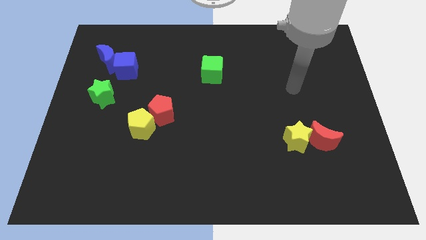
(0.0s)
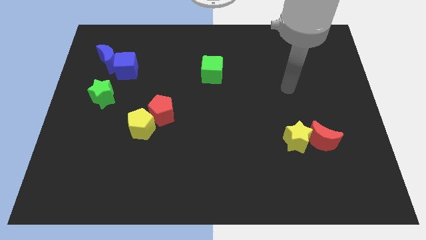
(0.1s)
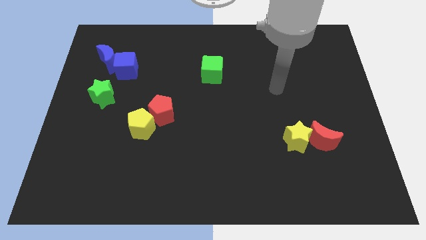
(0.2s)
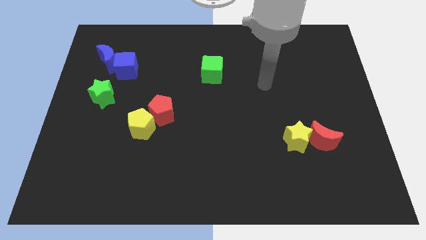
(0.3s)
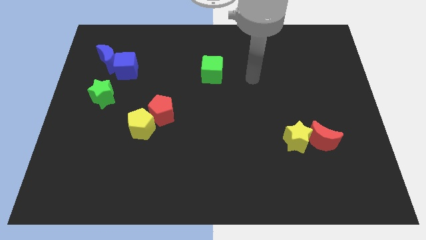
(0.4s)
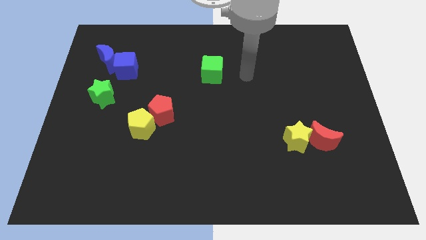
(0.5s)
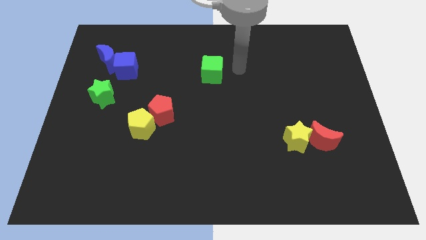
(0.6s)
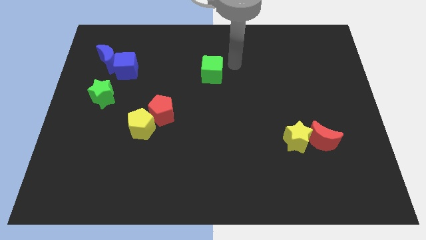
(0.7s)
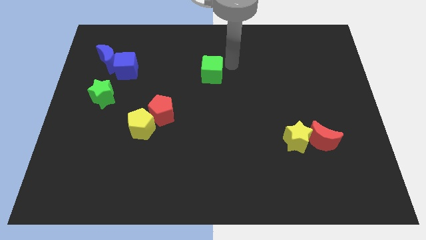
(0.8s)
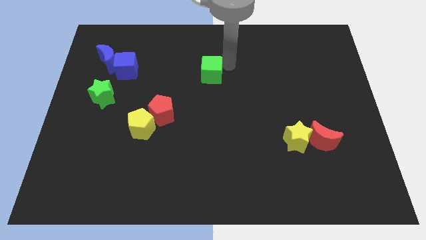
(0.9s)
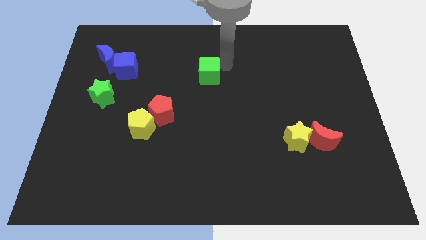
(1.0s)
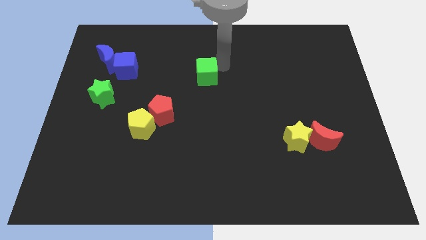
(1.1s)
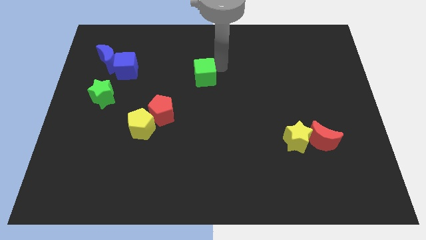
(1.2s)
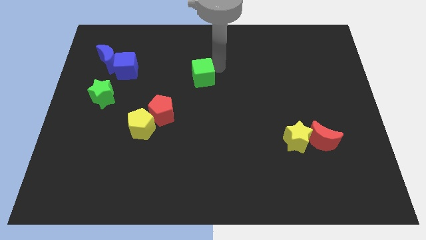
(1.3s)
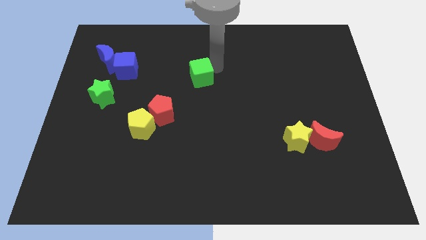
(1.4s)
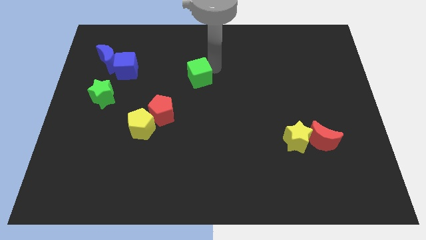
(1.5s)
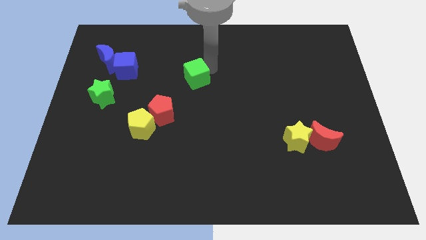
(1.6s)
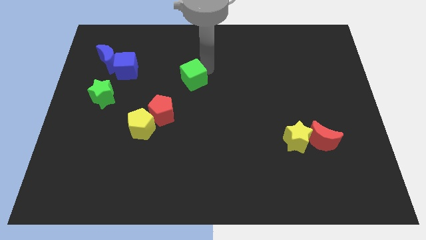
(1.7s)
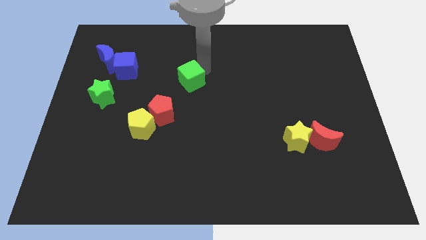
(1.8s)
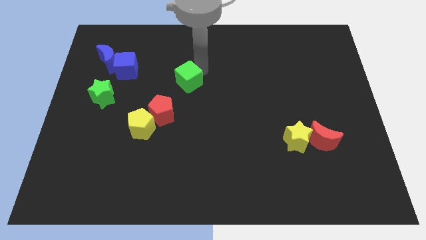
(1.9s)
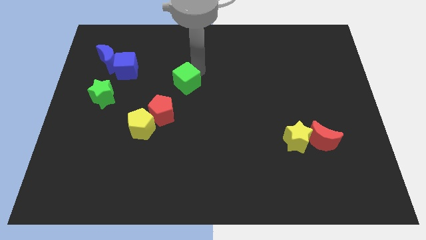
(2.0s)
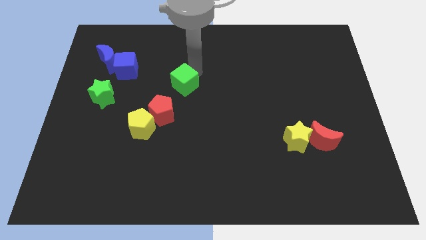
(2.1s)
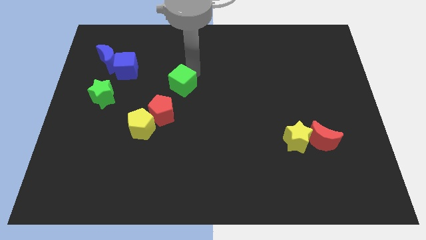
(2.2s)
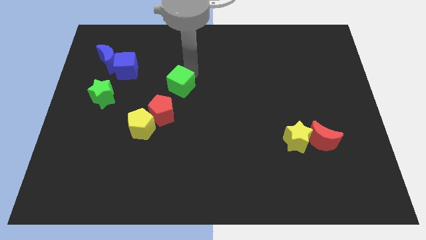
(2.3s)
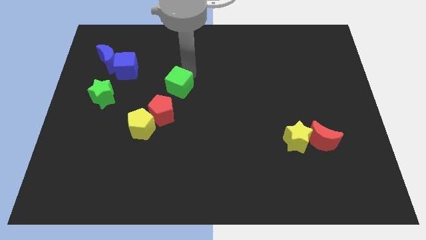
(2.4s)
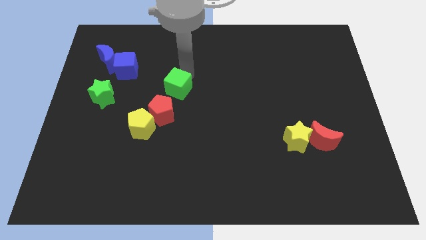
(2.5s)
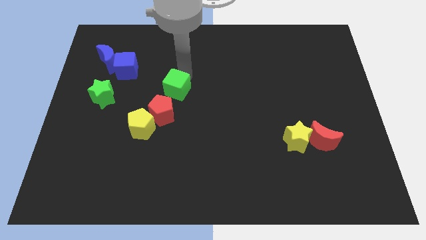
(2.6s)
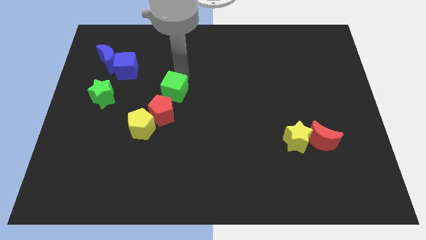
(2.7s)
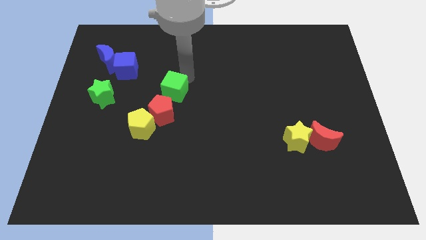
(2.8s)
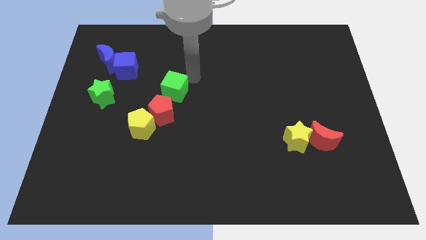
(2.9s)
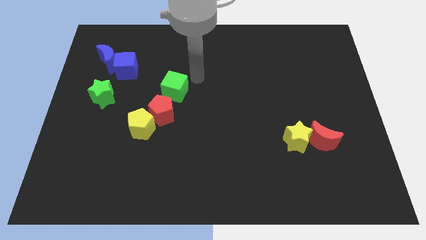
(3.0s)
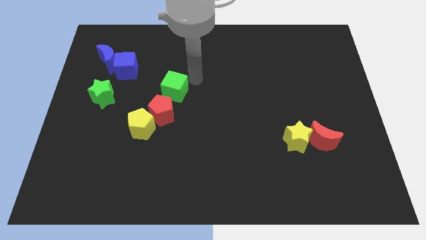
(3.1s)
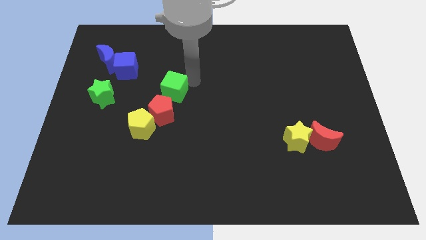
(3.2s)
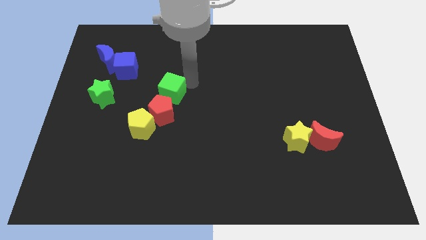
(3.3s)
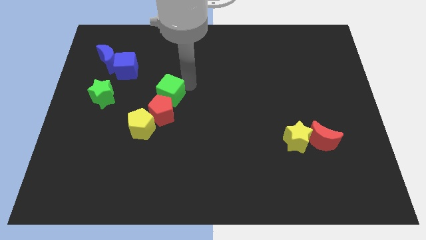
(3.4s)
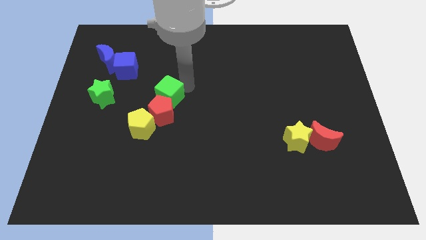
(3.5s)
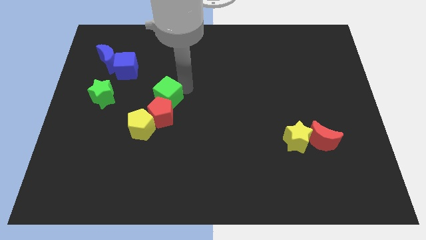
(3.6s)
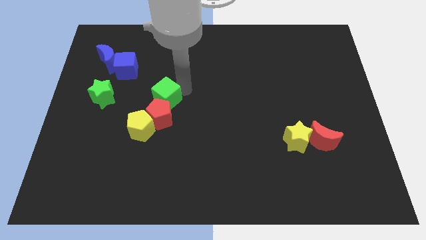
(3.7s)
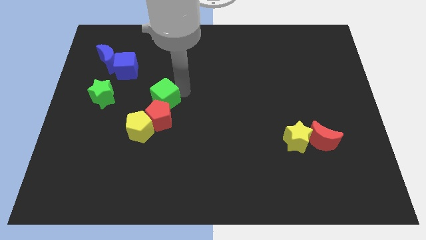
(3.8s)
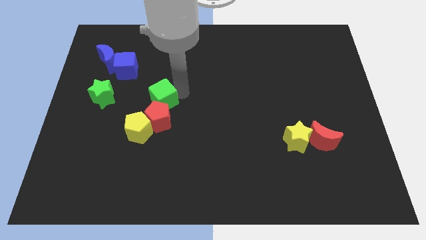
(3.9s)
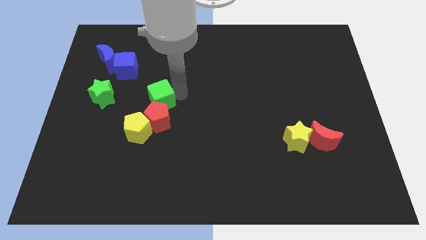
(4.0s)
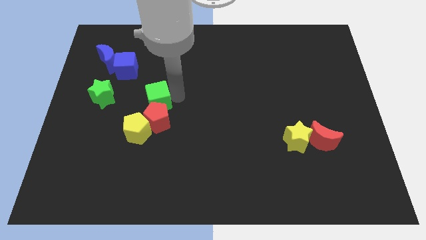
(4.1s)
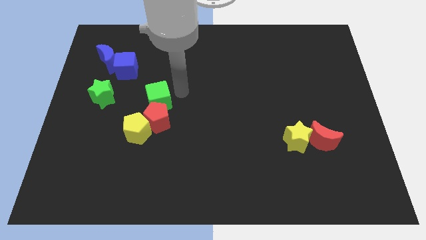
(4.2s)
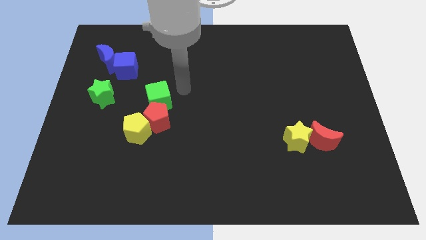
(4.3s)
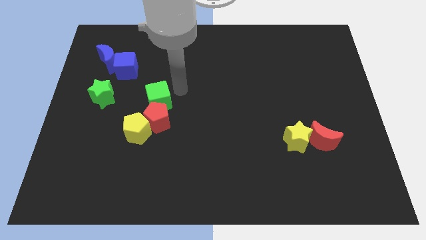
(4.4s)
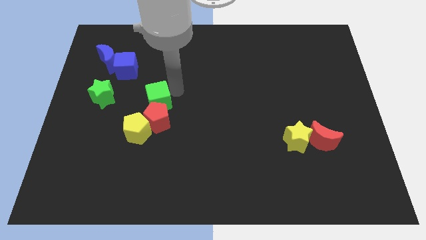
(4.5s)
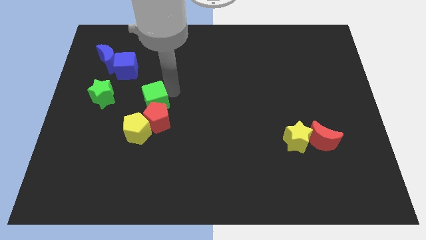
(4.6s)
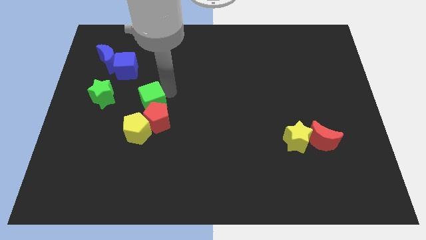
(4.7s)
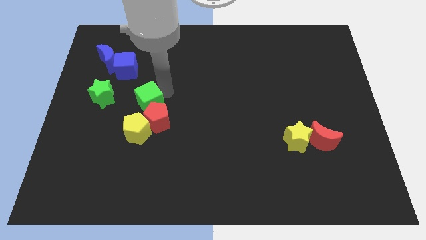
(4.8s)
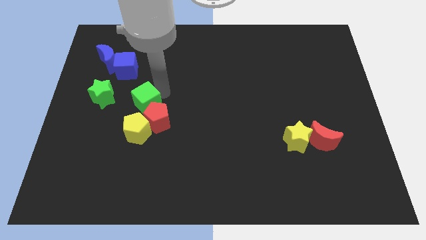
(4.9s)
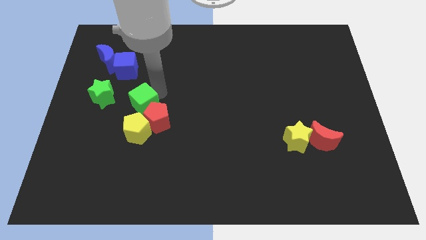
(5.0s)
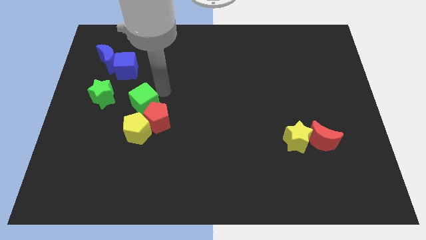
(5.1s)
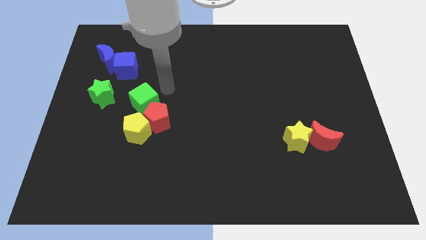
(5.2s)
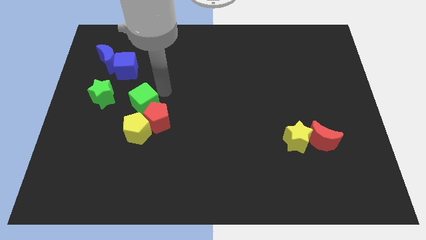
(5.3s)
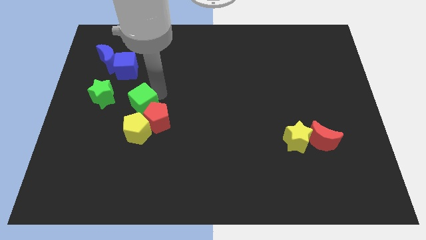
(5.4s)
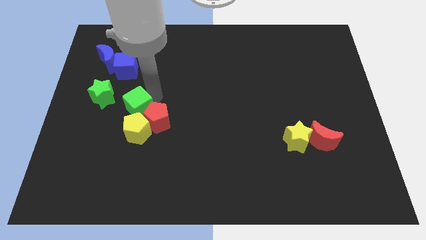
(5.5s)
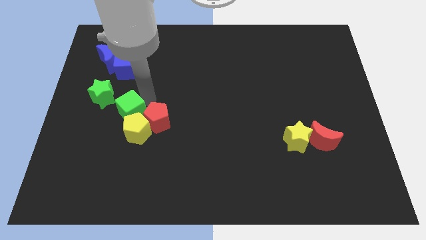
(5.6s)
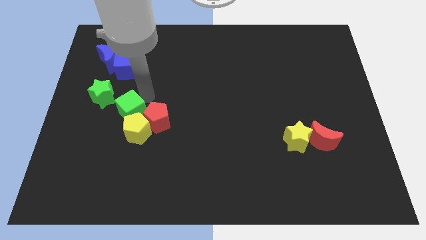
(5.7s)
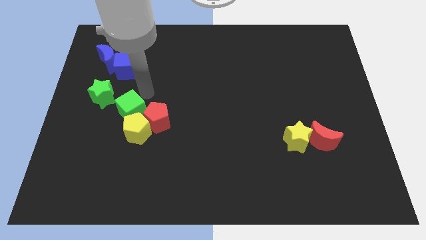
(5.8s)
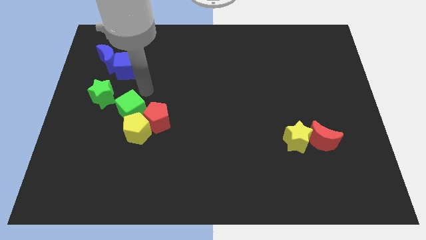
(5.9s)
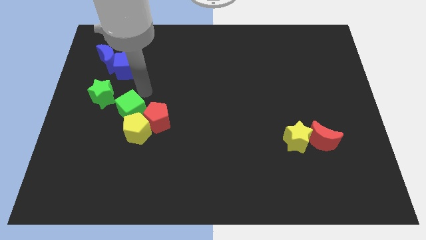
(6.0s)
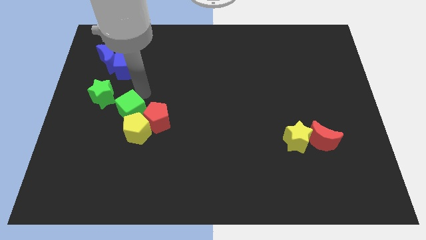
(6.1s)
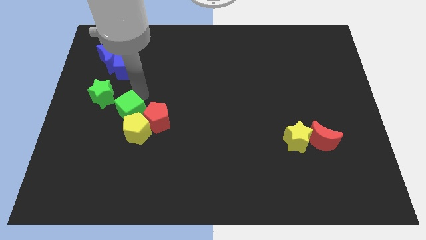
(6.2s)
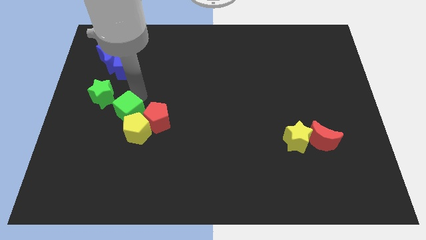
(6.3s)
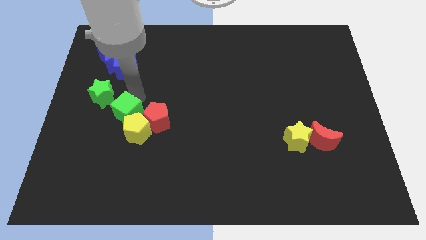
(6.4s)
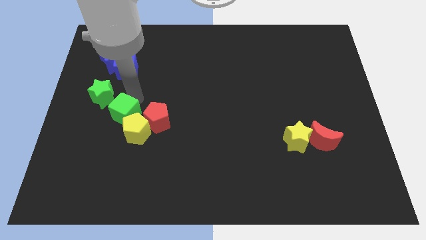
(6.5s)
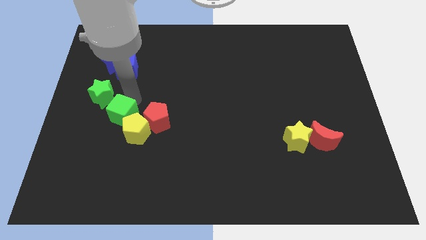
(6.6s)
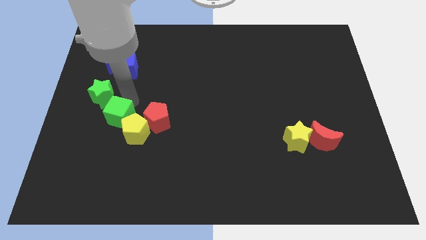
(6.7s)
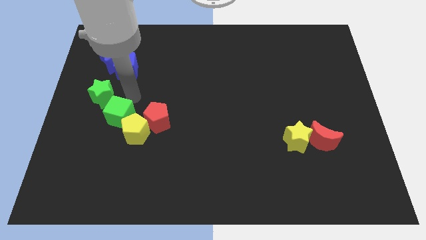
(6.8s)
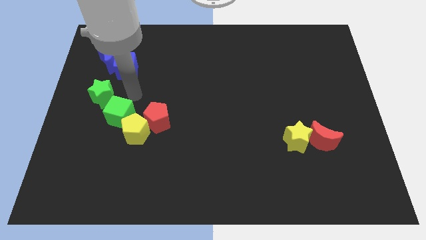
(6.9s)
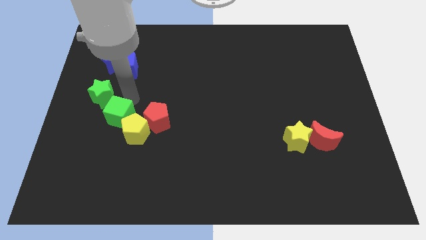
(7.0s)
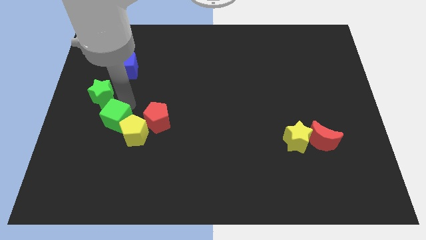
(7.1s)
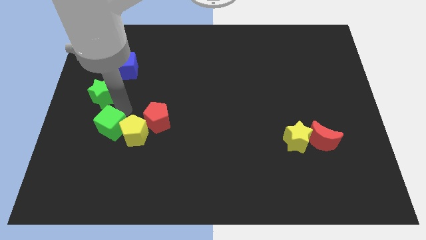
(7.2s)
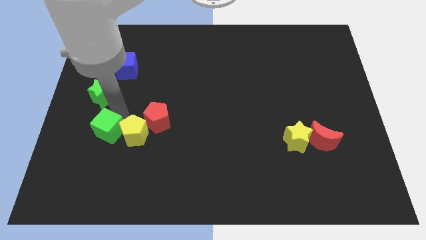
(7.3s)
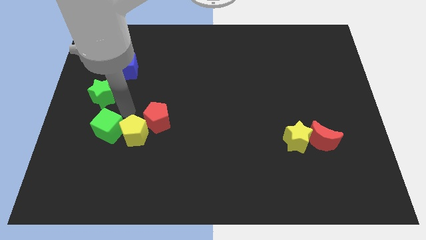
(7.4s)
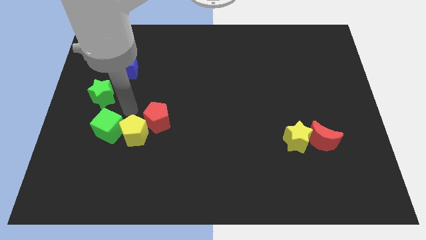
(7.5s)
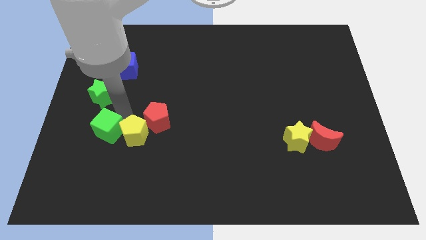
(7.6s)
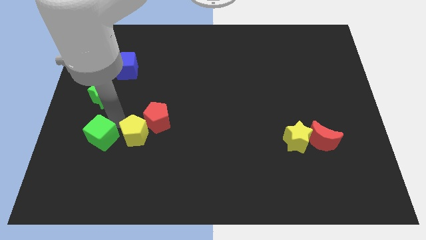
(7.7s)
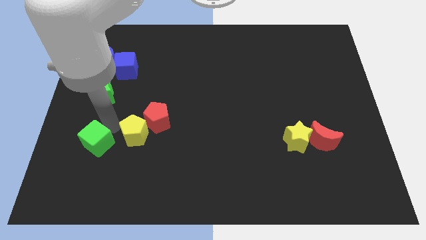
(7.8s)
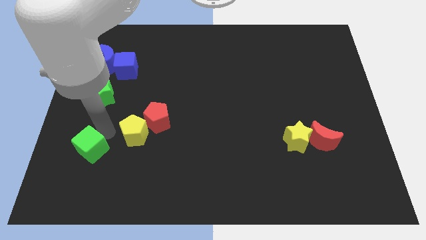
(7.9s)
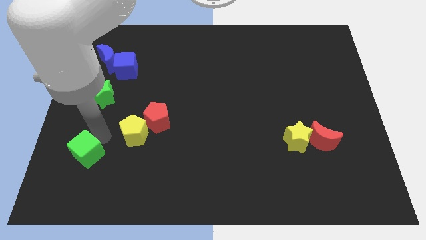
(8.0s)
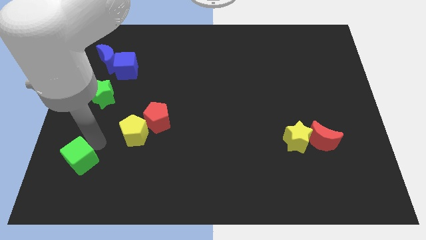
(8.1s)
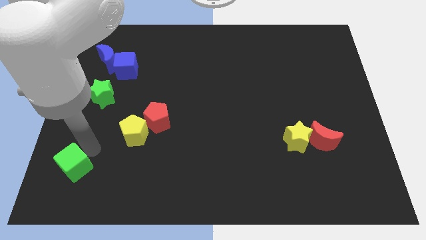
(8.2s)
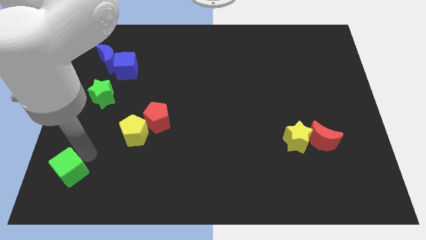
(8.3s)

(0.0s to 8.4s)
slide the green cube to the lower left corner
